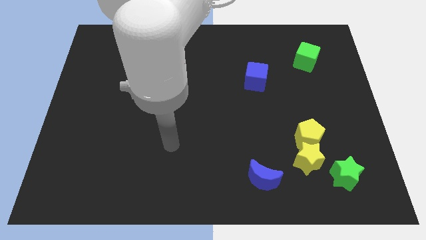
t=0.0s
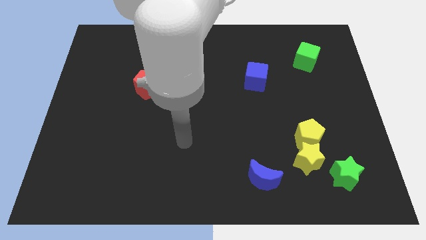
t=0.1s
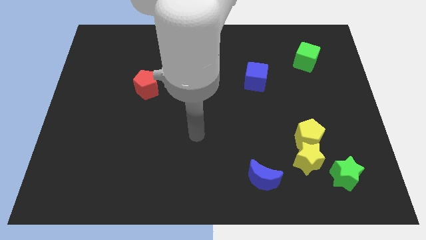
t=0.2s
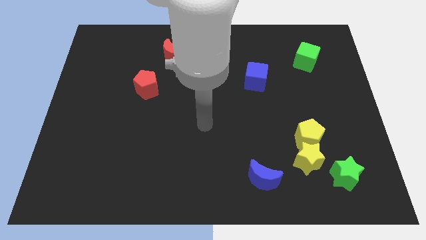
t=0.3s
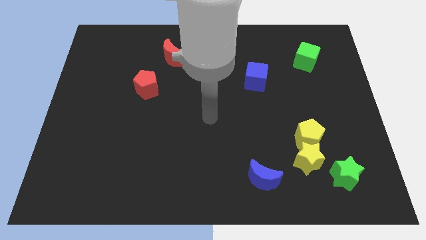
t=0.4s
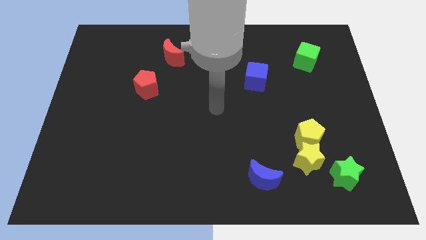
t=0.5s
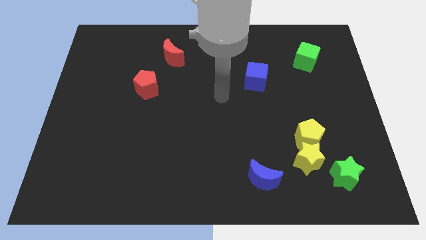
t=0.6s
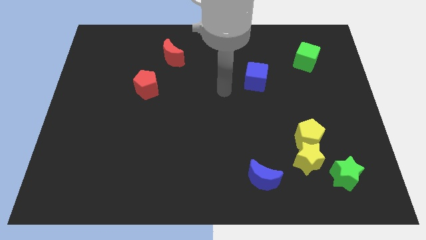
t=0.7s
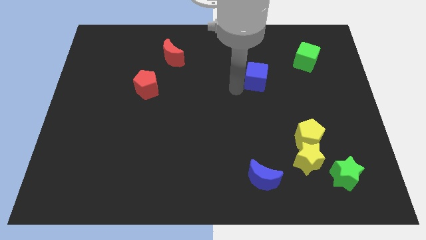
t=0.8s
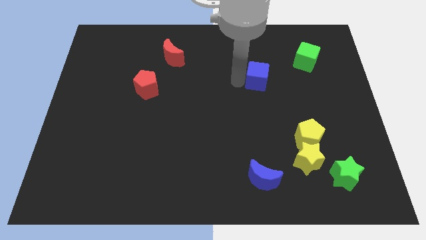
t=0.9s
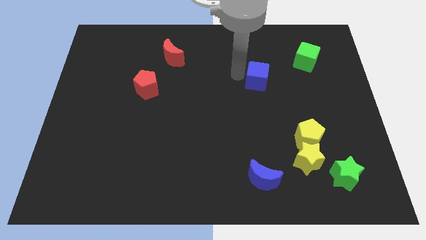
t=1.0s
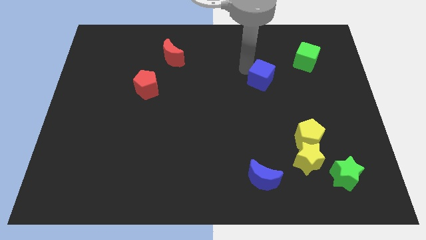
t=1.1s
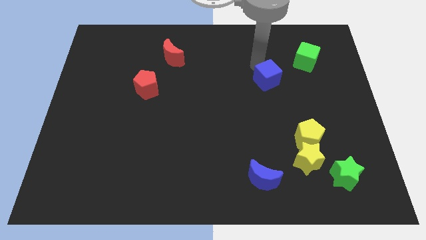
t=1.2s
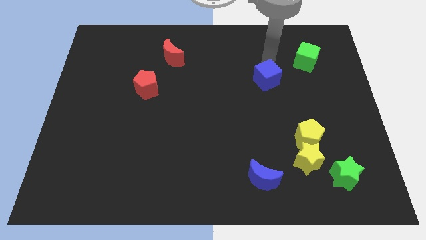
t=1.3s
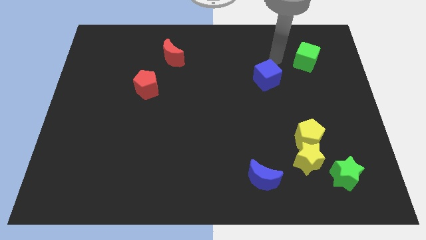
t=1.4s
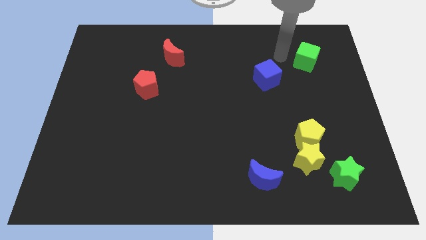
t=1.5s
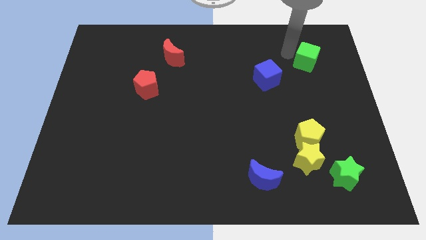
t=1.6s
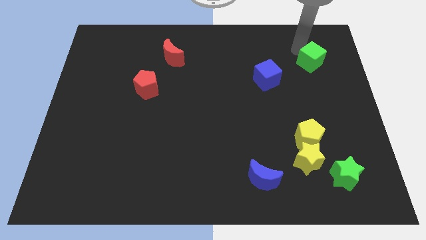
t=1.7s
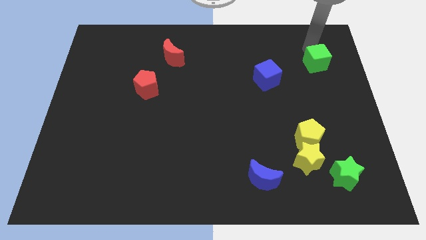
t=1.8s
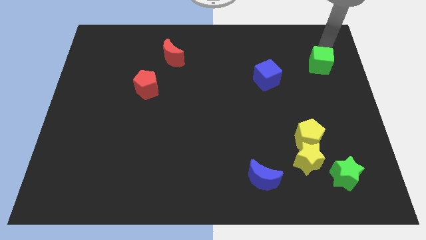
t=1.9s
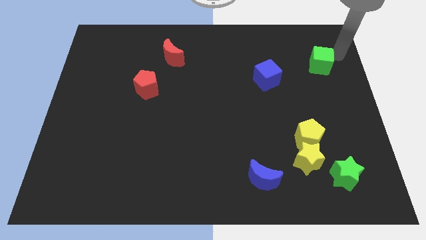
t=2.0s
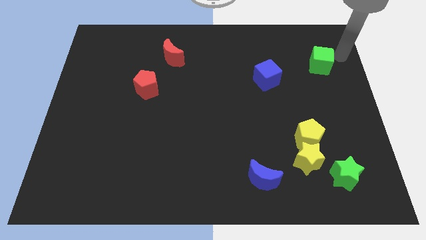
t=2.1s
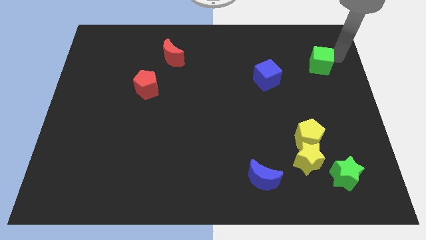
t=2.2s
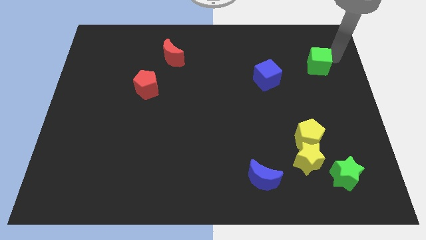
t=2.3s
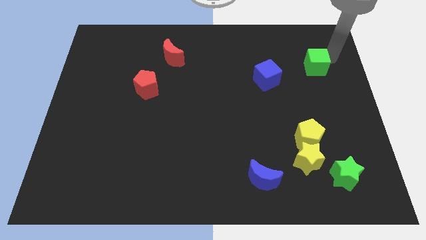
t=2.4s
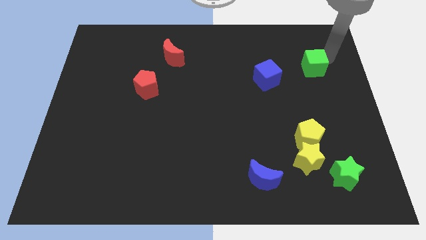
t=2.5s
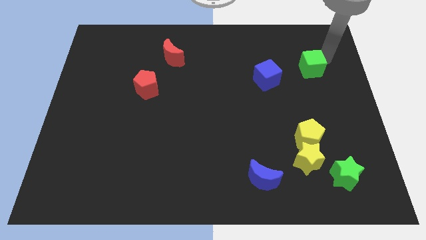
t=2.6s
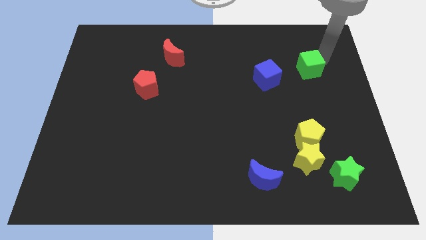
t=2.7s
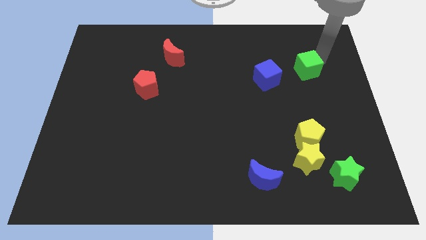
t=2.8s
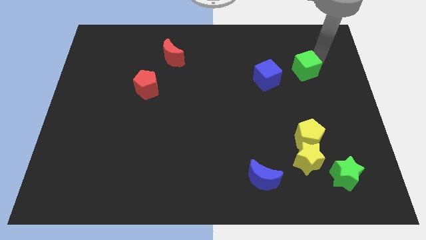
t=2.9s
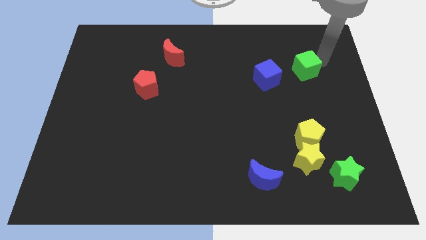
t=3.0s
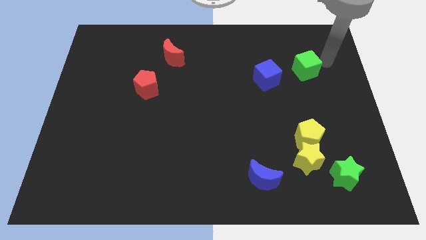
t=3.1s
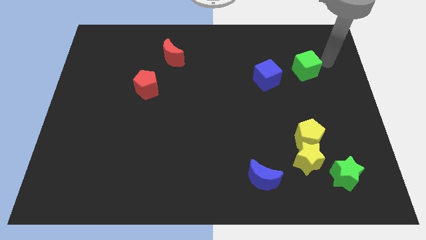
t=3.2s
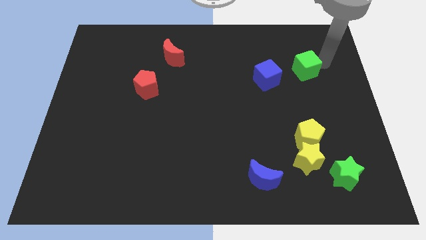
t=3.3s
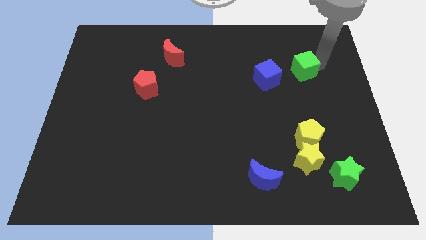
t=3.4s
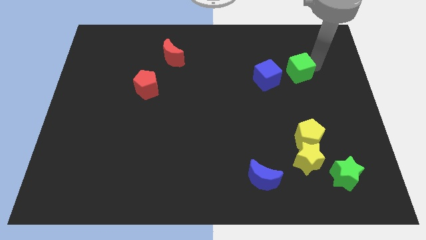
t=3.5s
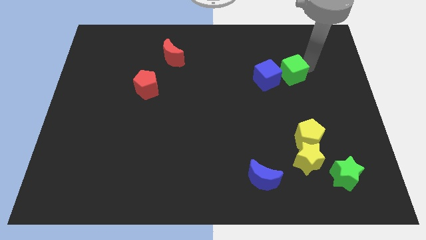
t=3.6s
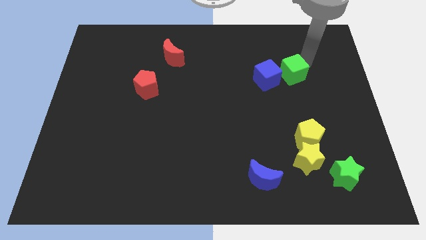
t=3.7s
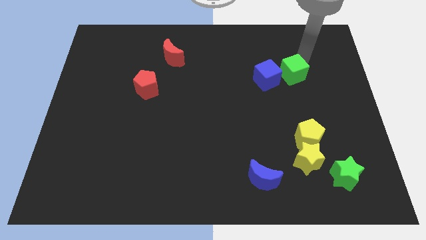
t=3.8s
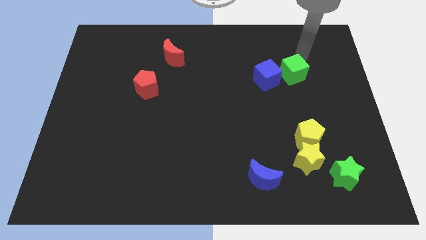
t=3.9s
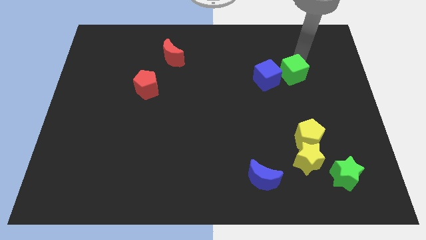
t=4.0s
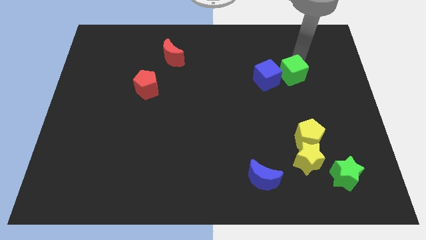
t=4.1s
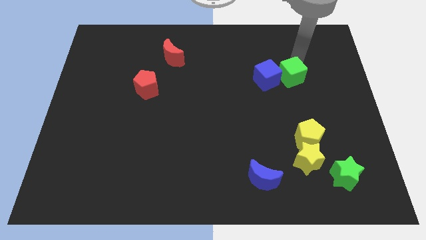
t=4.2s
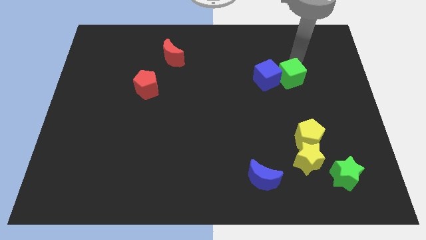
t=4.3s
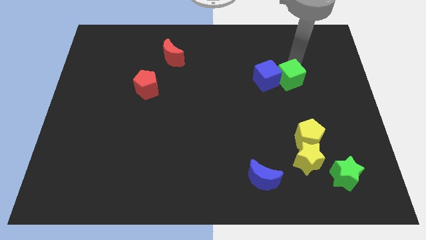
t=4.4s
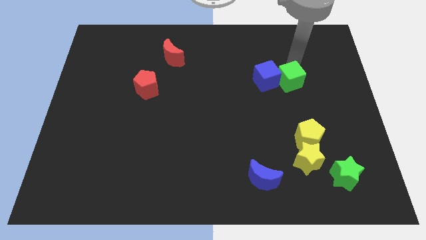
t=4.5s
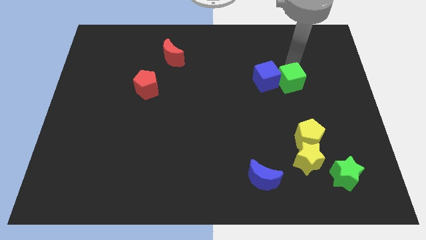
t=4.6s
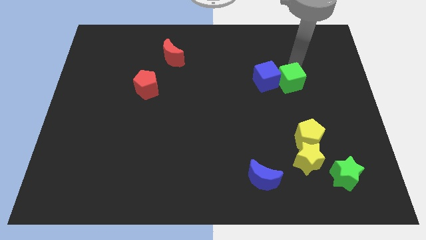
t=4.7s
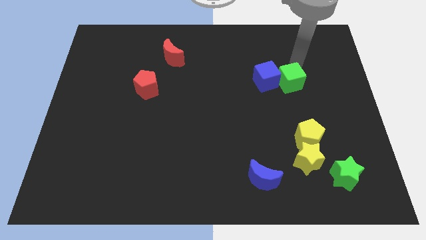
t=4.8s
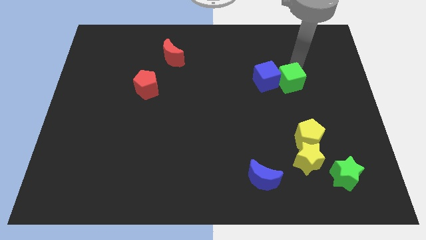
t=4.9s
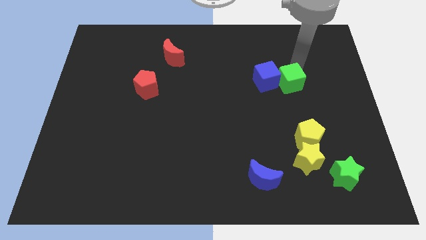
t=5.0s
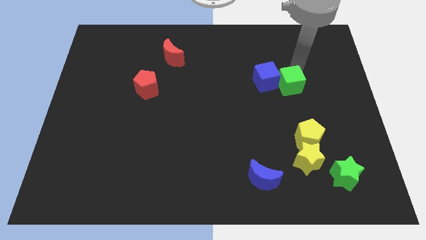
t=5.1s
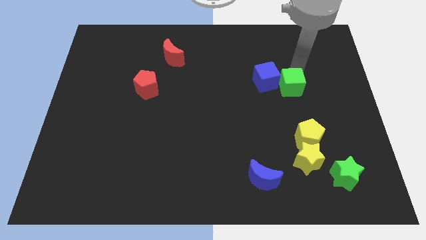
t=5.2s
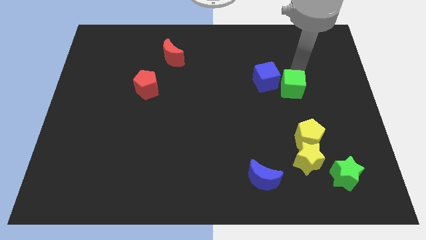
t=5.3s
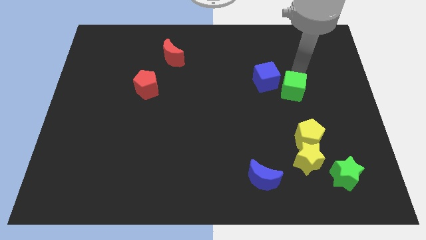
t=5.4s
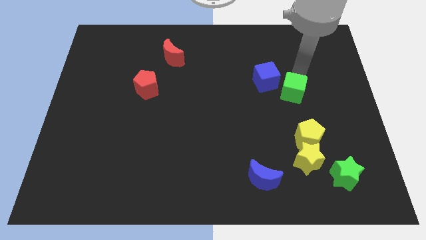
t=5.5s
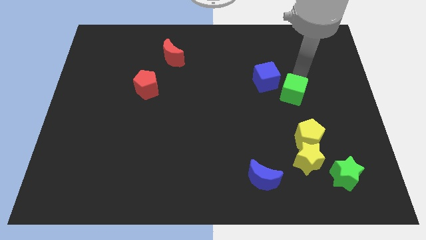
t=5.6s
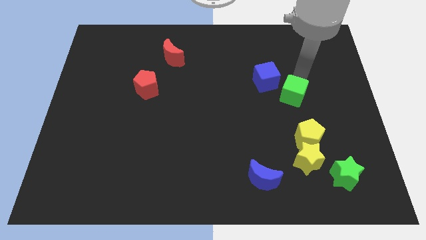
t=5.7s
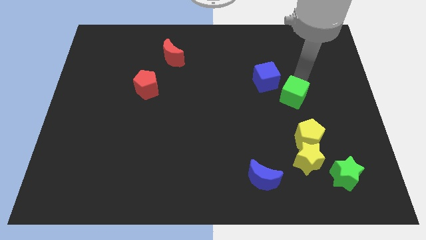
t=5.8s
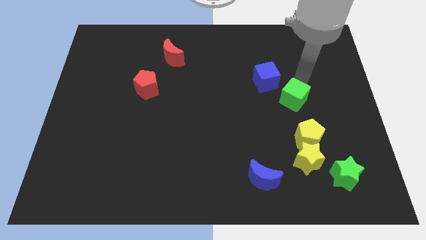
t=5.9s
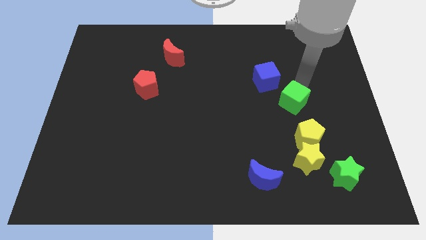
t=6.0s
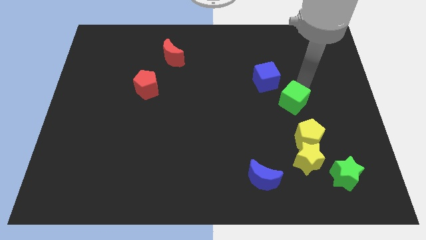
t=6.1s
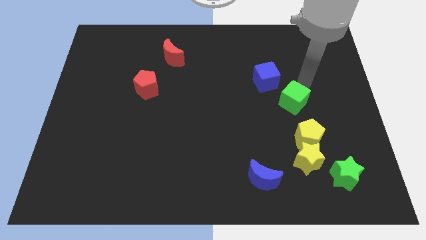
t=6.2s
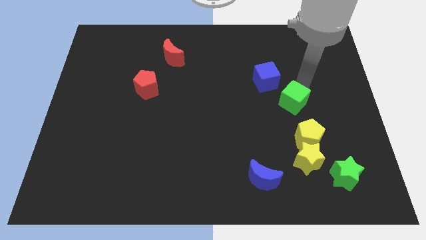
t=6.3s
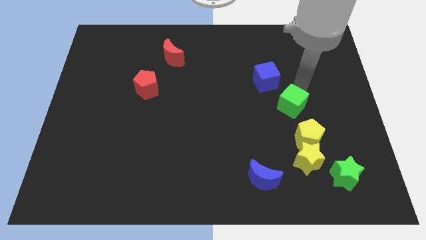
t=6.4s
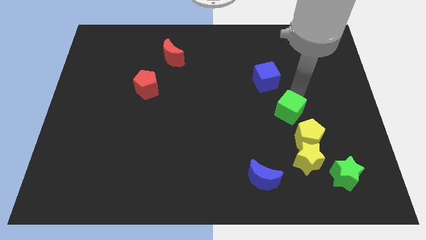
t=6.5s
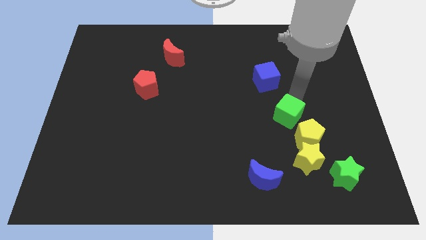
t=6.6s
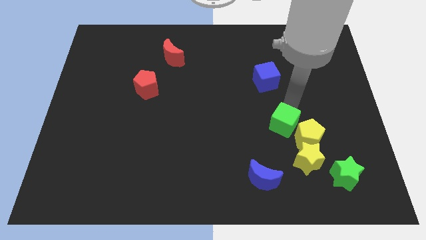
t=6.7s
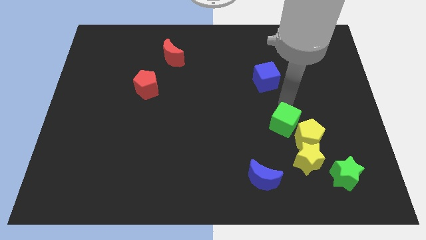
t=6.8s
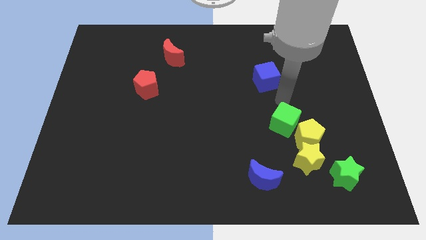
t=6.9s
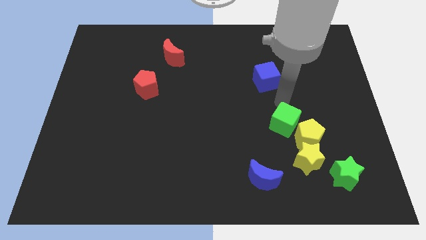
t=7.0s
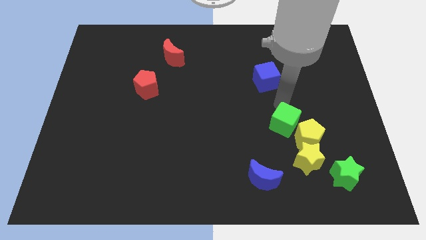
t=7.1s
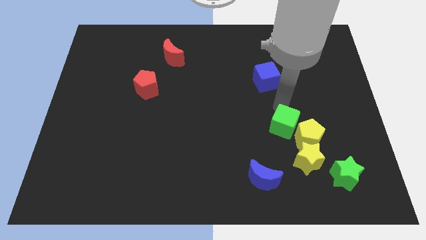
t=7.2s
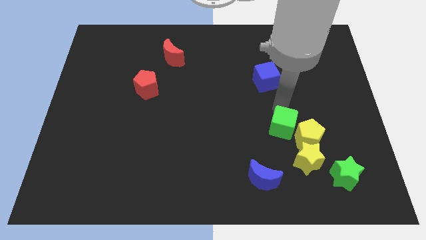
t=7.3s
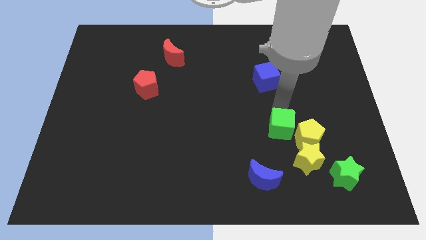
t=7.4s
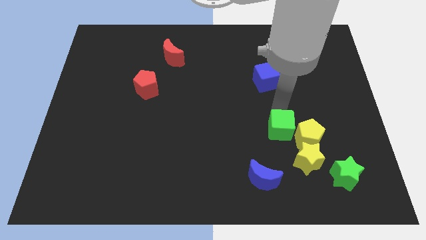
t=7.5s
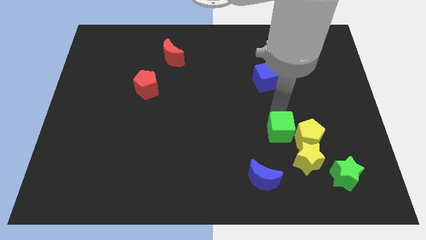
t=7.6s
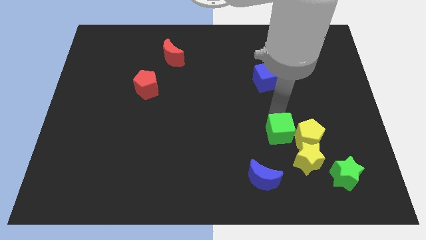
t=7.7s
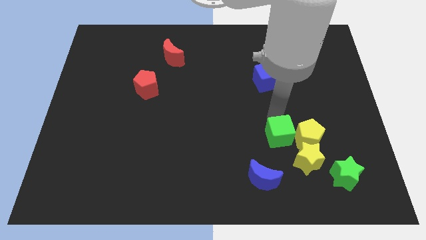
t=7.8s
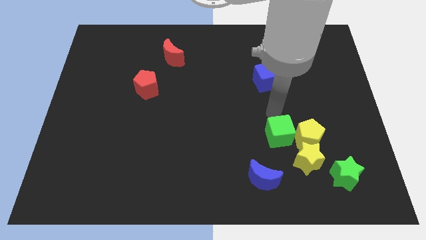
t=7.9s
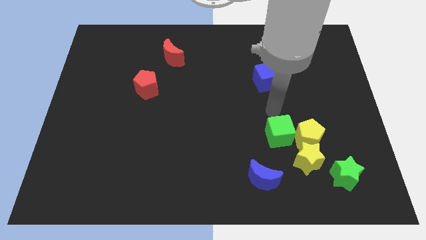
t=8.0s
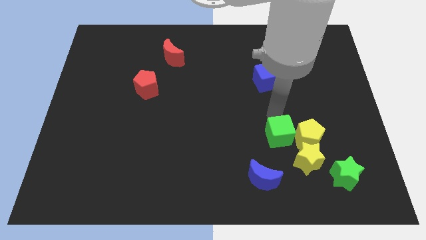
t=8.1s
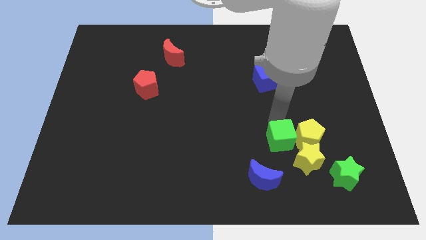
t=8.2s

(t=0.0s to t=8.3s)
slide the green cube diagonally up and to the right of the blue moon
